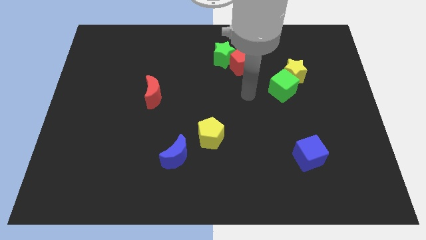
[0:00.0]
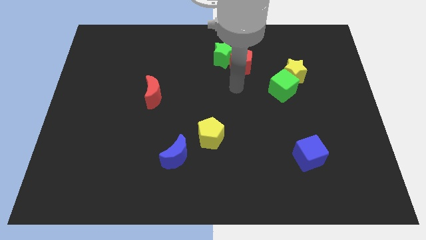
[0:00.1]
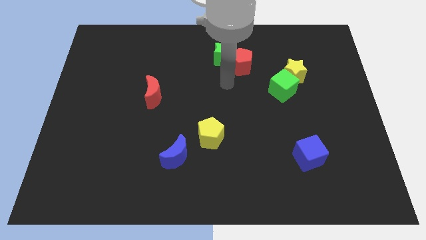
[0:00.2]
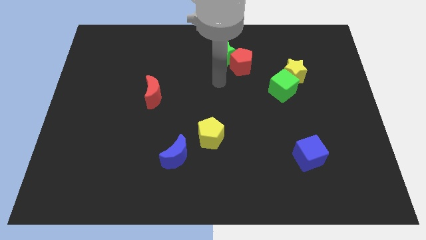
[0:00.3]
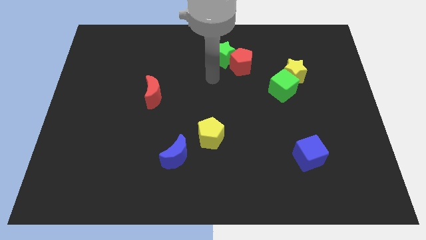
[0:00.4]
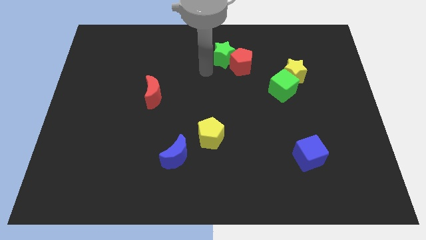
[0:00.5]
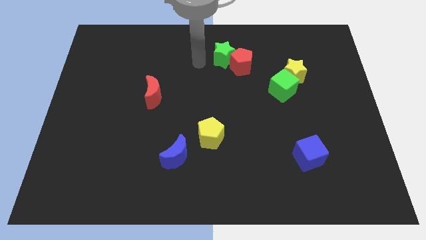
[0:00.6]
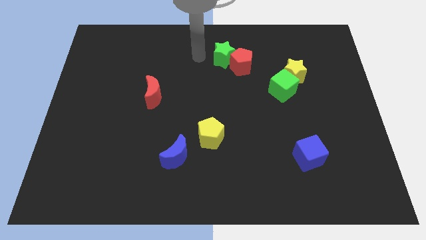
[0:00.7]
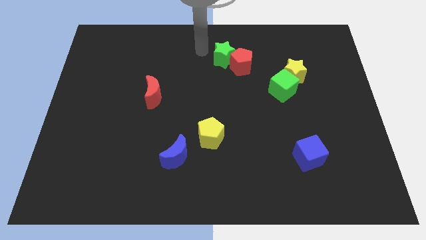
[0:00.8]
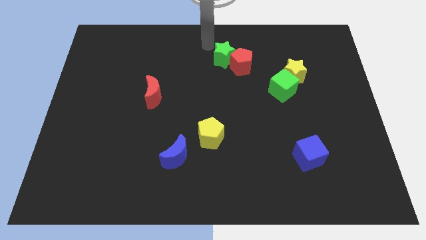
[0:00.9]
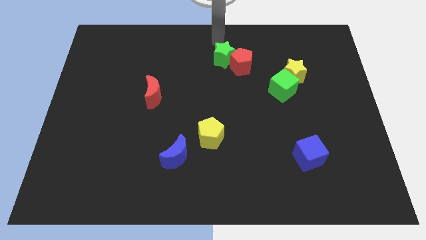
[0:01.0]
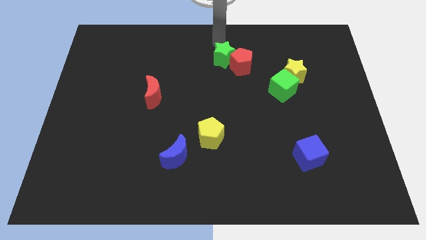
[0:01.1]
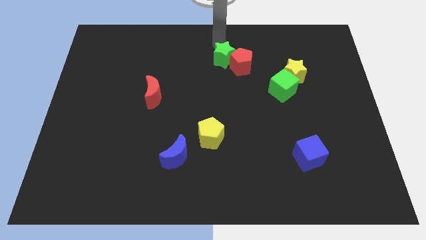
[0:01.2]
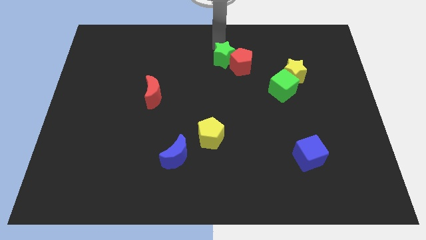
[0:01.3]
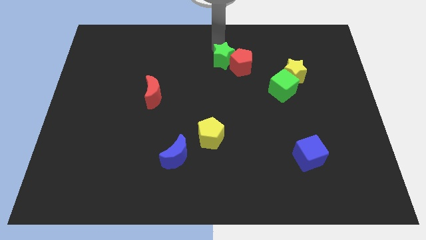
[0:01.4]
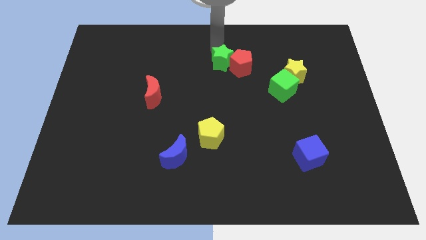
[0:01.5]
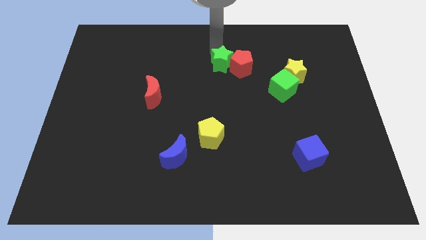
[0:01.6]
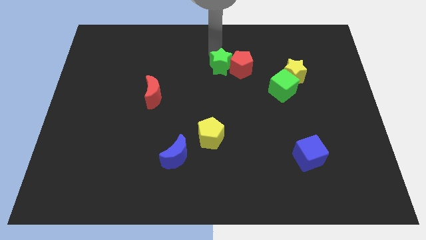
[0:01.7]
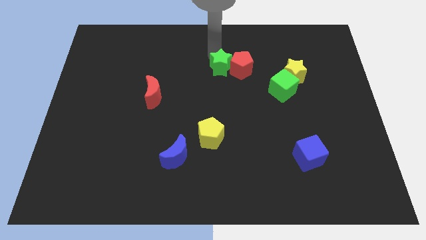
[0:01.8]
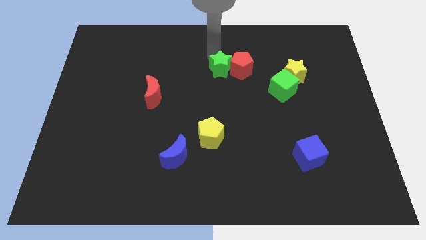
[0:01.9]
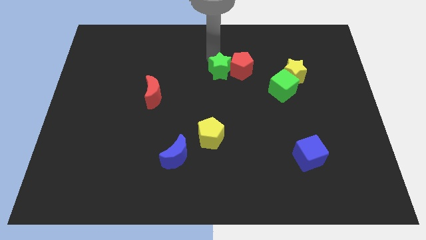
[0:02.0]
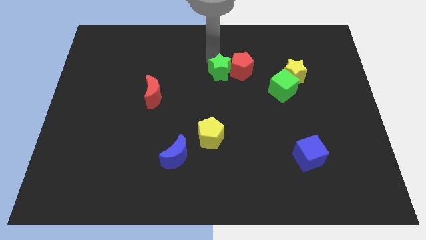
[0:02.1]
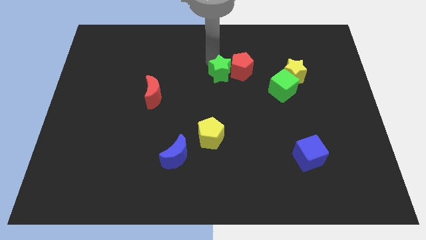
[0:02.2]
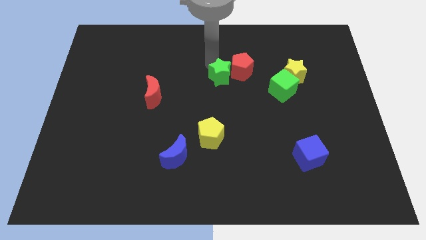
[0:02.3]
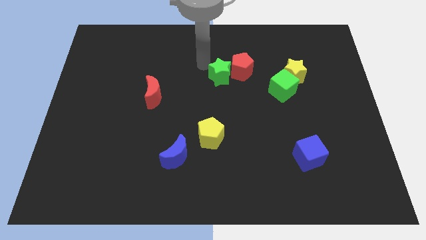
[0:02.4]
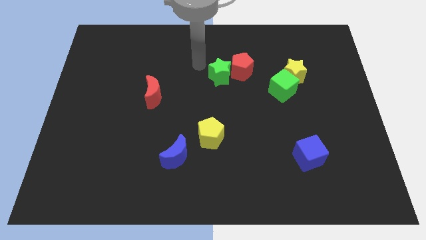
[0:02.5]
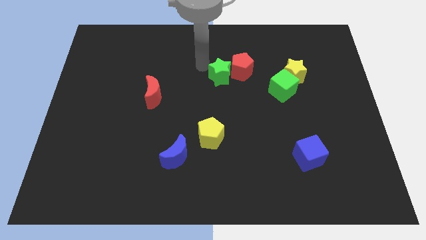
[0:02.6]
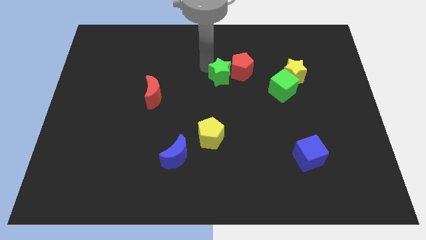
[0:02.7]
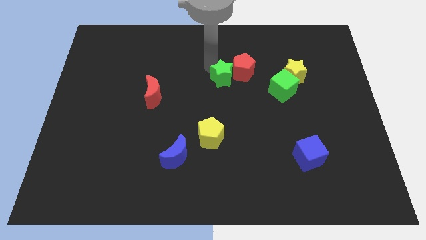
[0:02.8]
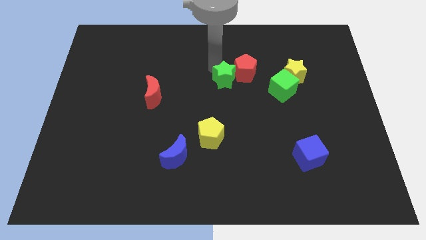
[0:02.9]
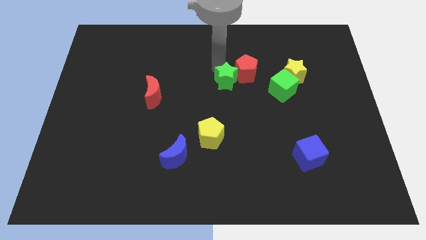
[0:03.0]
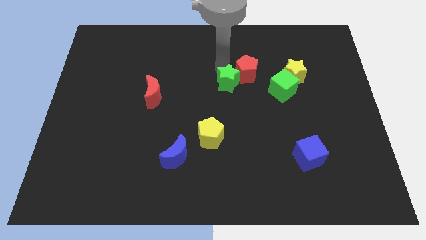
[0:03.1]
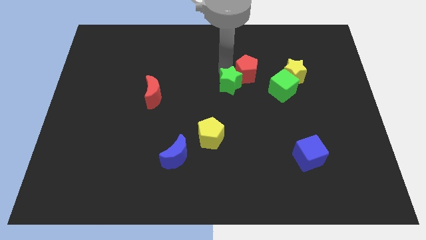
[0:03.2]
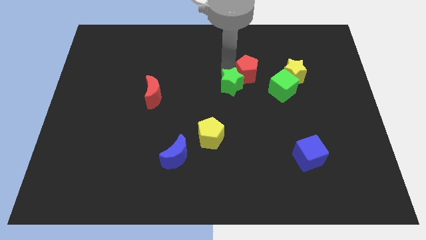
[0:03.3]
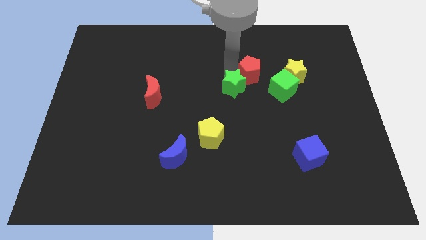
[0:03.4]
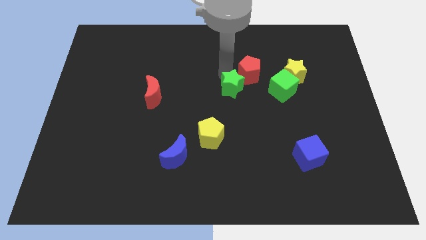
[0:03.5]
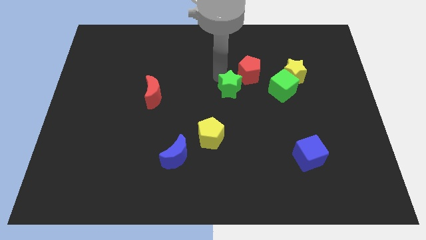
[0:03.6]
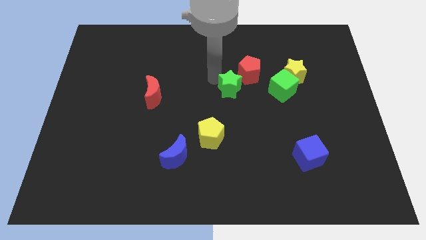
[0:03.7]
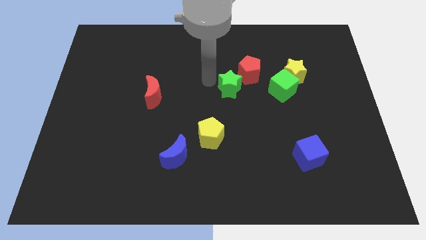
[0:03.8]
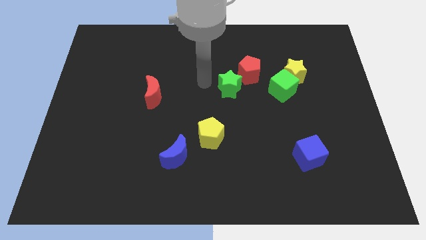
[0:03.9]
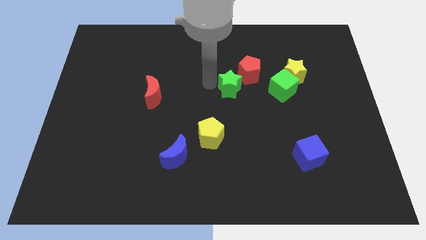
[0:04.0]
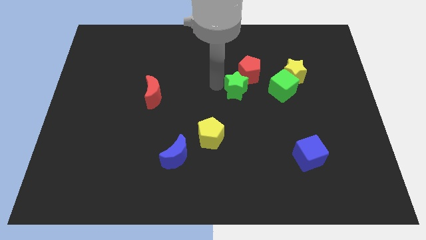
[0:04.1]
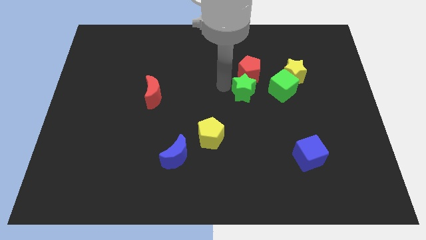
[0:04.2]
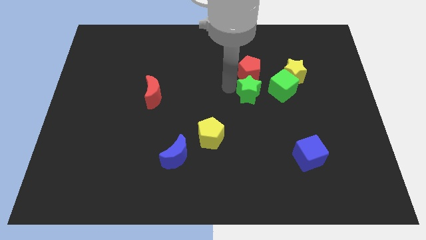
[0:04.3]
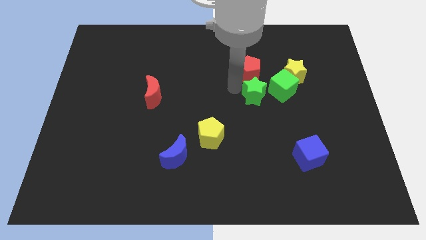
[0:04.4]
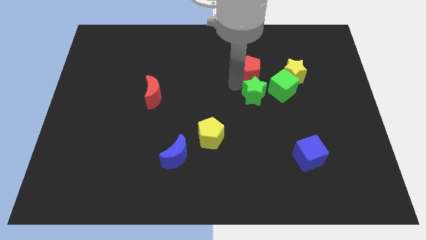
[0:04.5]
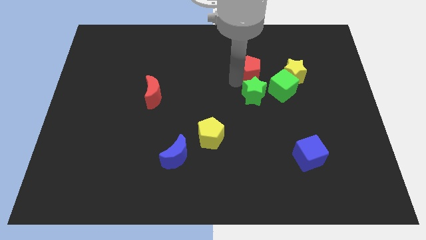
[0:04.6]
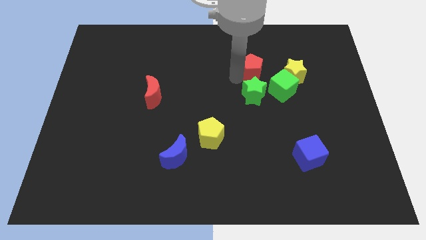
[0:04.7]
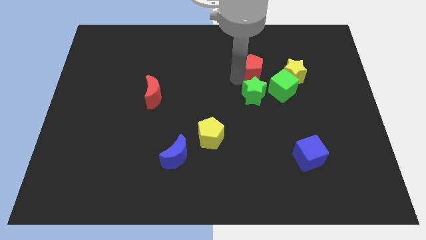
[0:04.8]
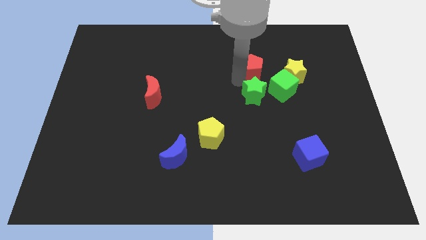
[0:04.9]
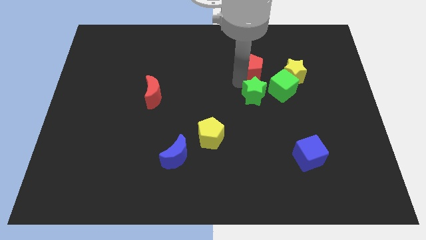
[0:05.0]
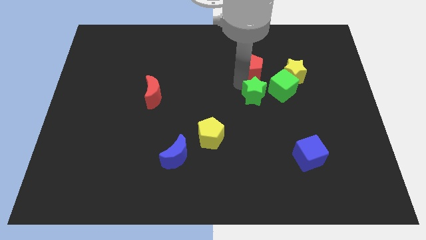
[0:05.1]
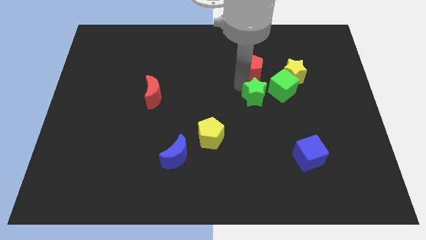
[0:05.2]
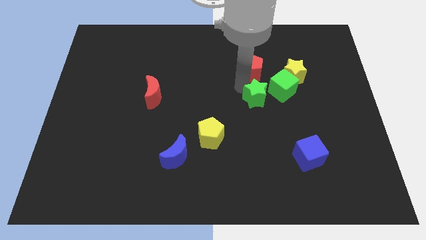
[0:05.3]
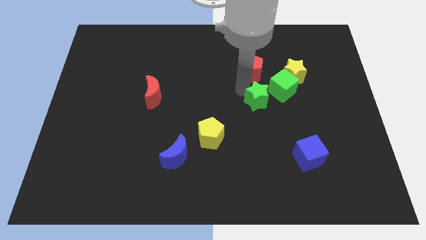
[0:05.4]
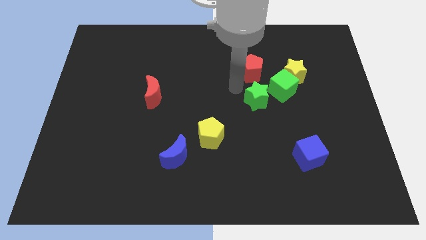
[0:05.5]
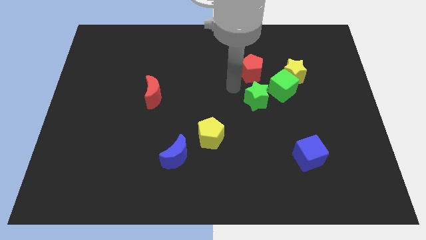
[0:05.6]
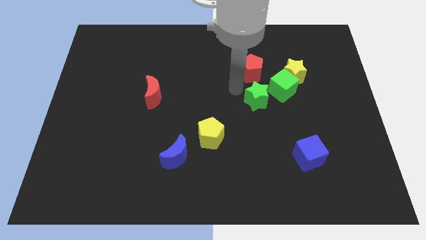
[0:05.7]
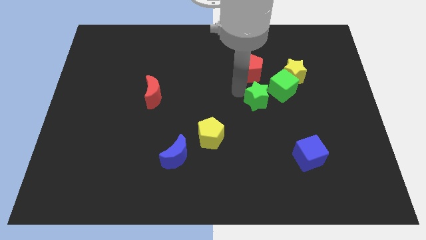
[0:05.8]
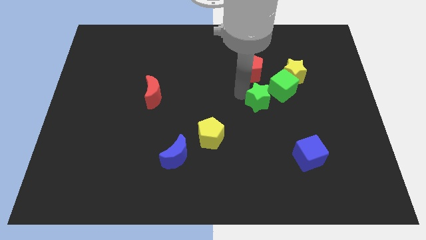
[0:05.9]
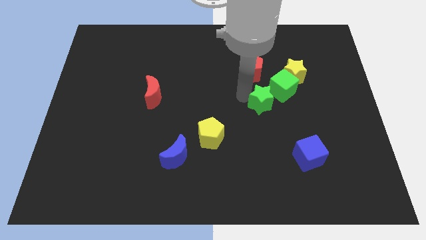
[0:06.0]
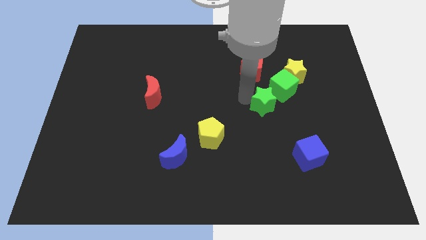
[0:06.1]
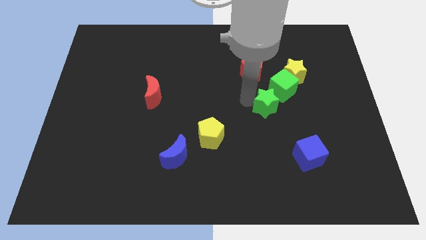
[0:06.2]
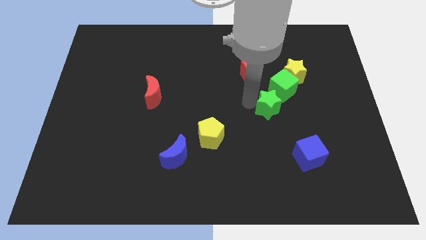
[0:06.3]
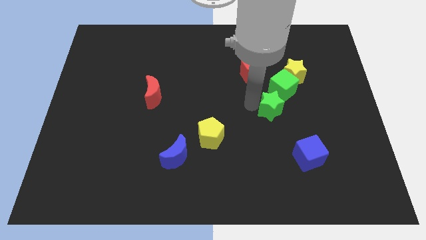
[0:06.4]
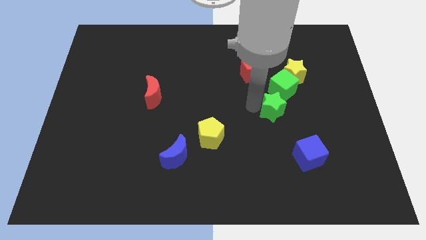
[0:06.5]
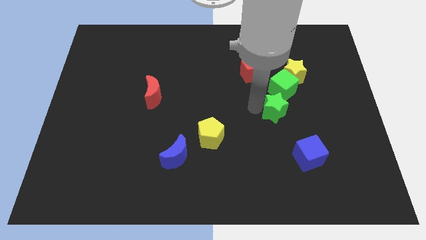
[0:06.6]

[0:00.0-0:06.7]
push the green star downwards and then to the right

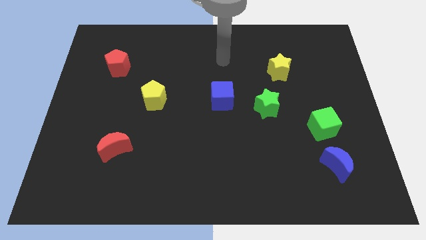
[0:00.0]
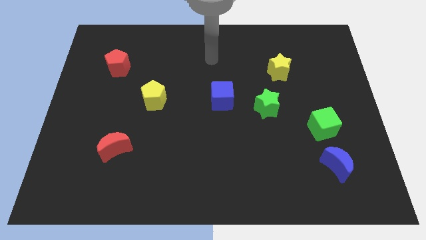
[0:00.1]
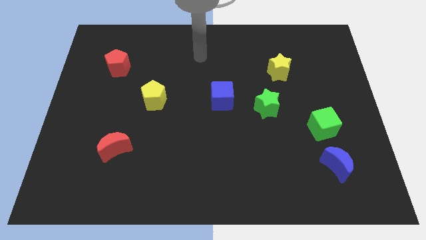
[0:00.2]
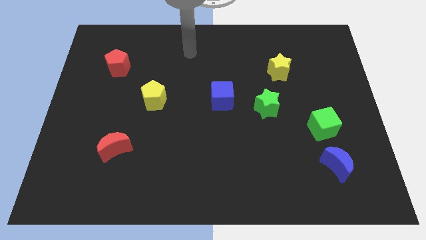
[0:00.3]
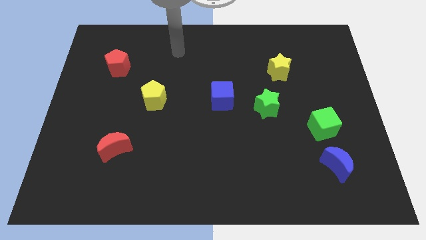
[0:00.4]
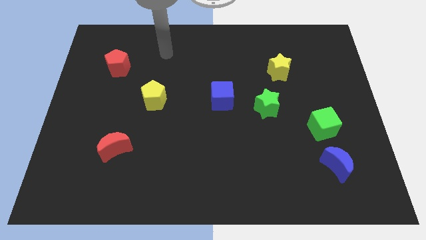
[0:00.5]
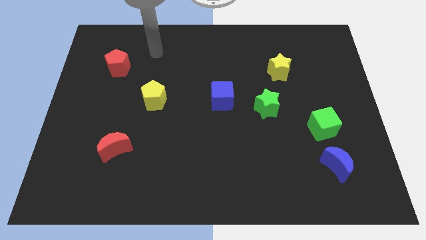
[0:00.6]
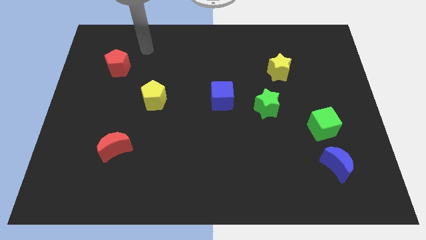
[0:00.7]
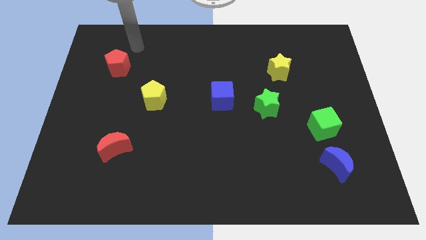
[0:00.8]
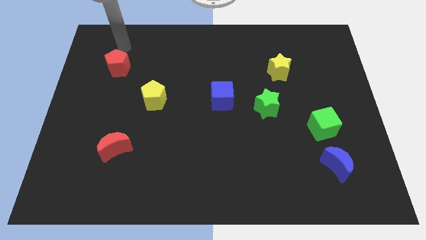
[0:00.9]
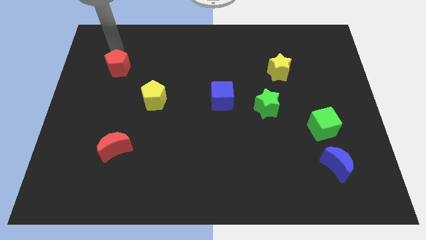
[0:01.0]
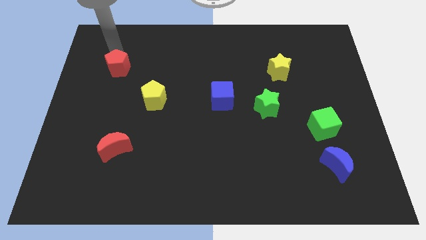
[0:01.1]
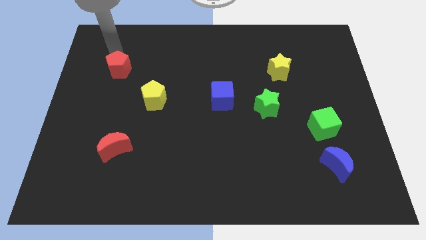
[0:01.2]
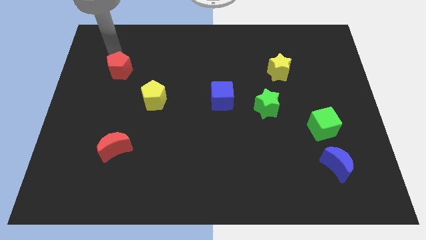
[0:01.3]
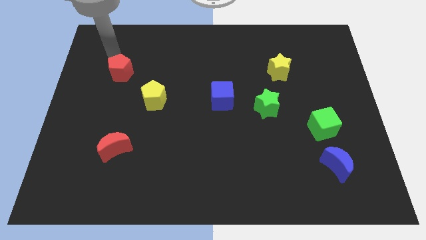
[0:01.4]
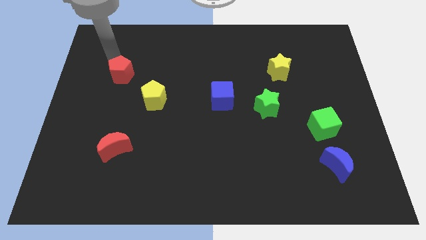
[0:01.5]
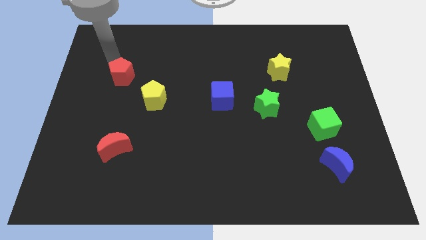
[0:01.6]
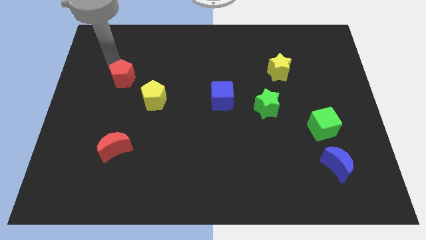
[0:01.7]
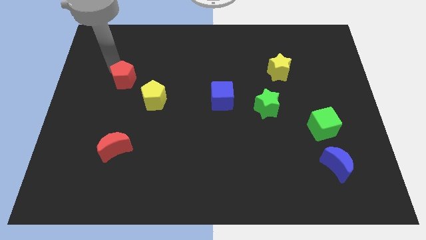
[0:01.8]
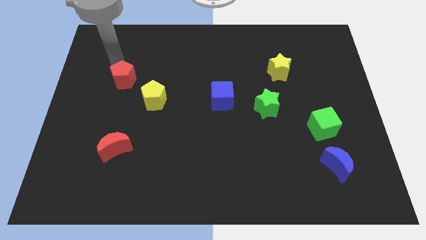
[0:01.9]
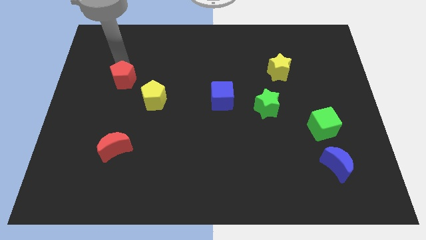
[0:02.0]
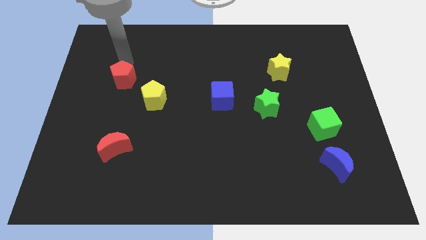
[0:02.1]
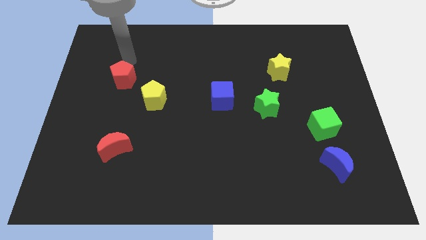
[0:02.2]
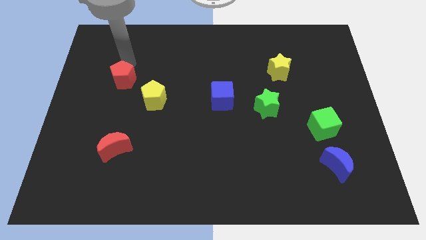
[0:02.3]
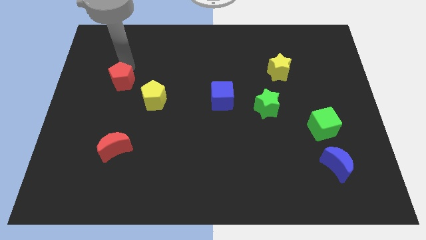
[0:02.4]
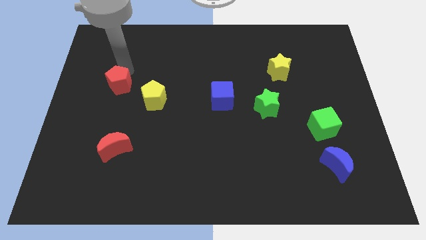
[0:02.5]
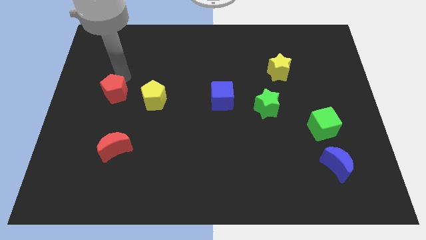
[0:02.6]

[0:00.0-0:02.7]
push the red pentagon a little down
